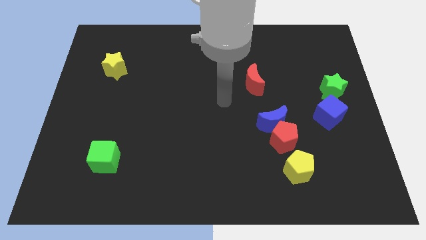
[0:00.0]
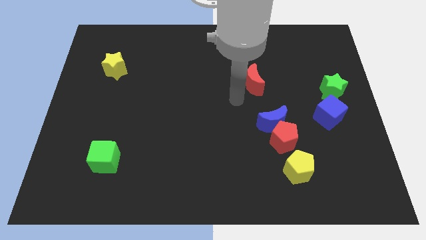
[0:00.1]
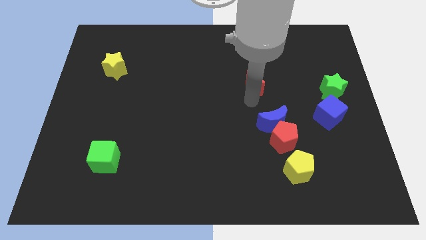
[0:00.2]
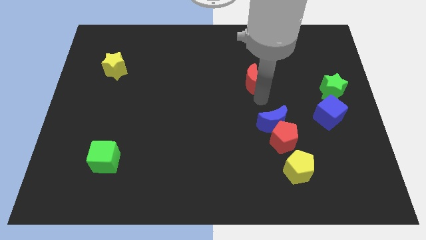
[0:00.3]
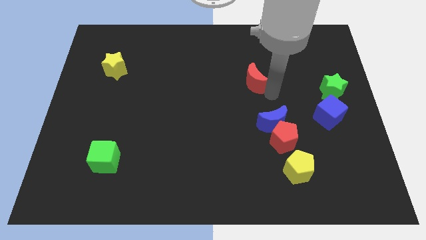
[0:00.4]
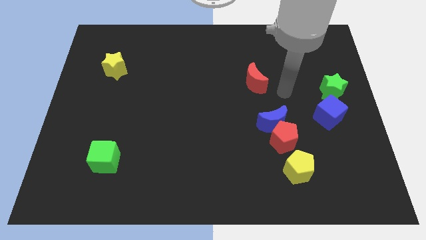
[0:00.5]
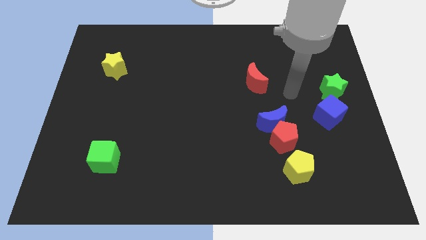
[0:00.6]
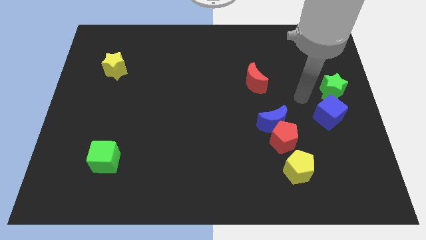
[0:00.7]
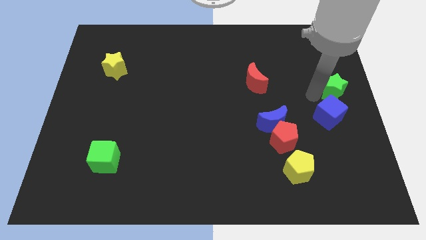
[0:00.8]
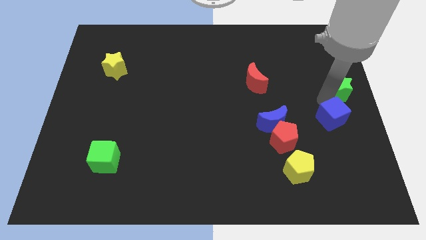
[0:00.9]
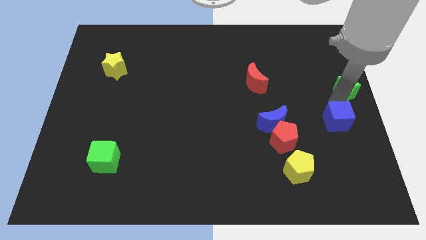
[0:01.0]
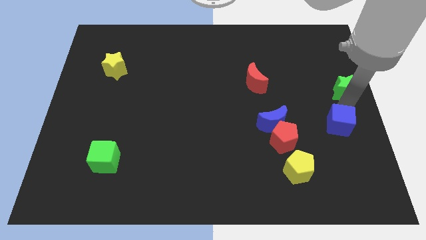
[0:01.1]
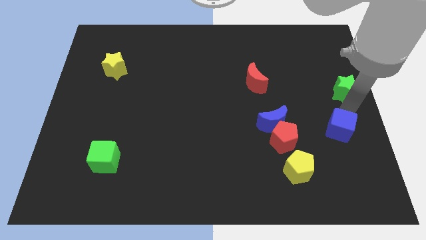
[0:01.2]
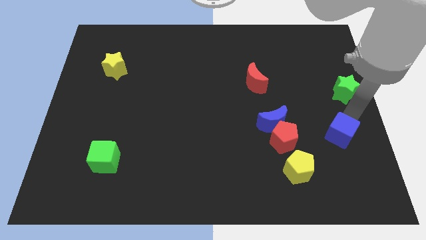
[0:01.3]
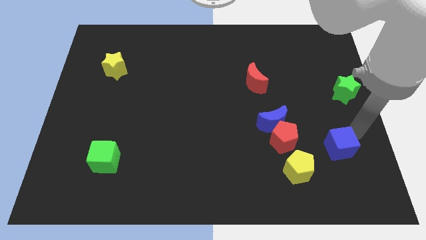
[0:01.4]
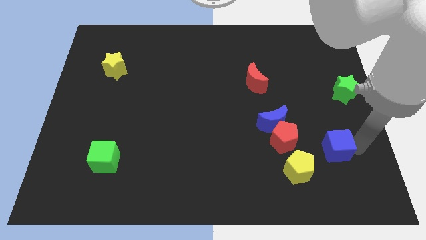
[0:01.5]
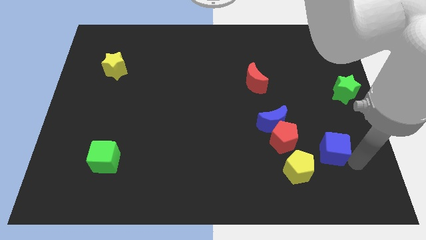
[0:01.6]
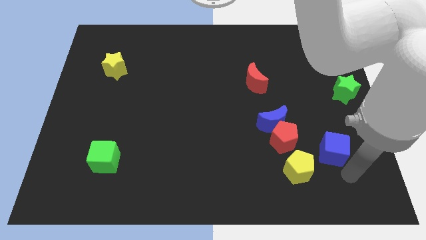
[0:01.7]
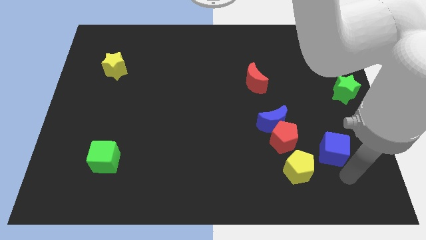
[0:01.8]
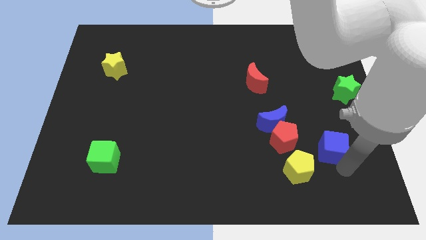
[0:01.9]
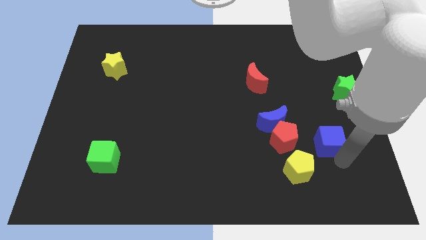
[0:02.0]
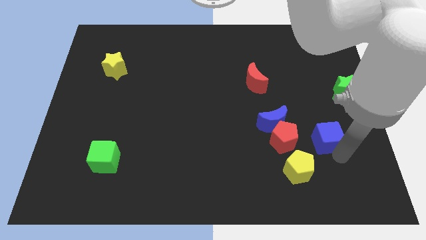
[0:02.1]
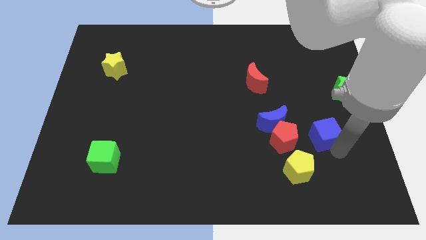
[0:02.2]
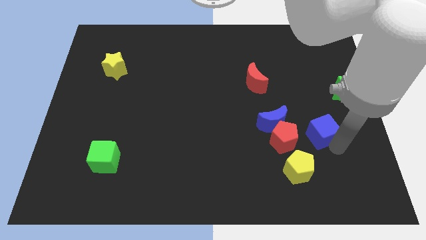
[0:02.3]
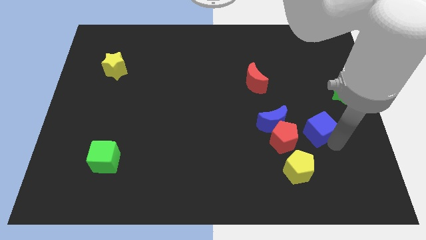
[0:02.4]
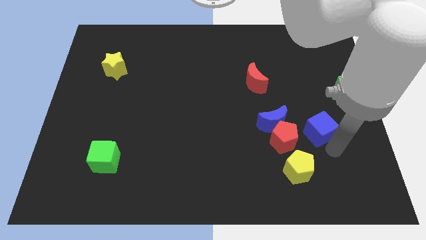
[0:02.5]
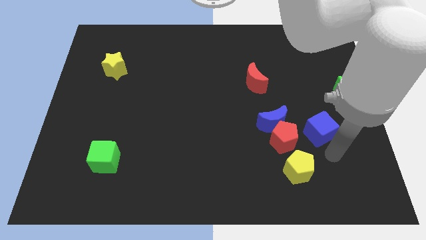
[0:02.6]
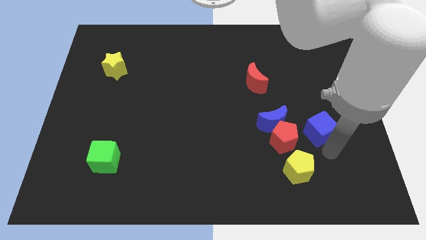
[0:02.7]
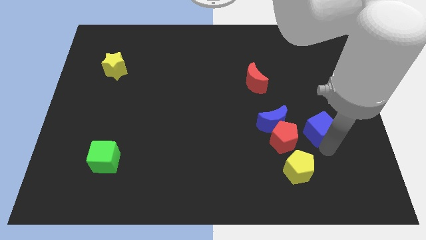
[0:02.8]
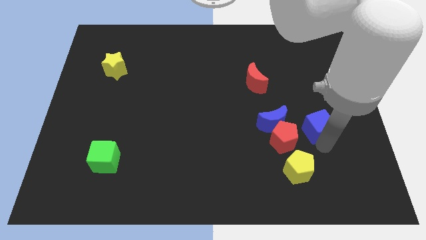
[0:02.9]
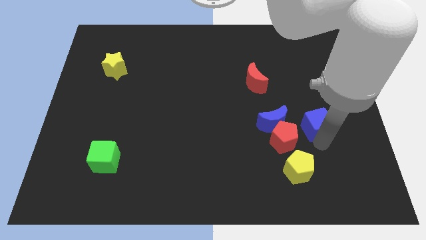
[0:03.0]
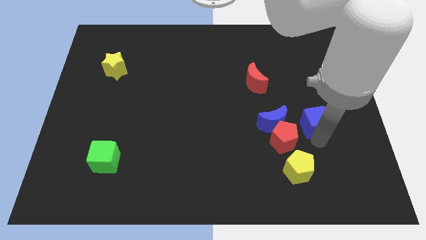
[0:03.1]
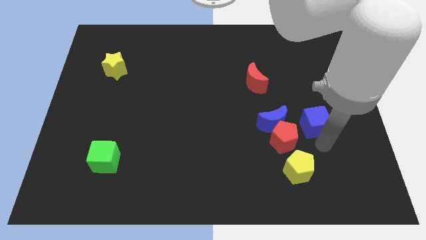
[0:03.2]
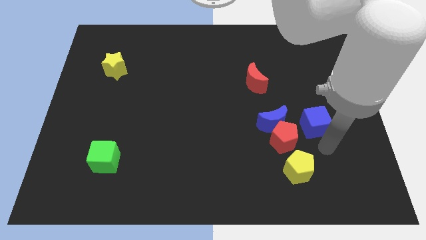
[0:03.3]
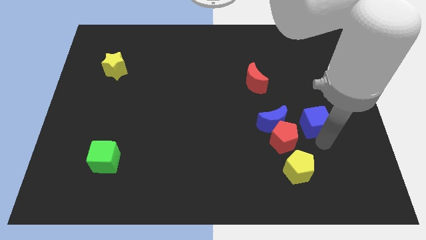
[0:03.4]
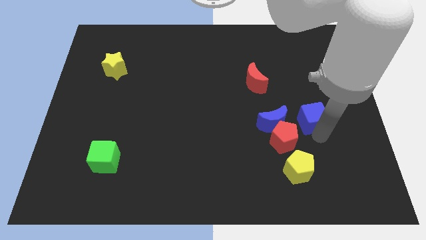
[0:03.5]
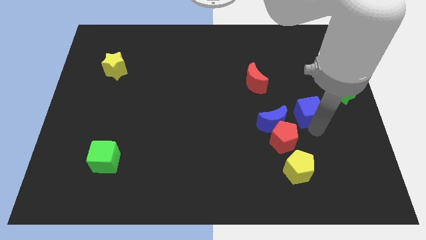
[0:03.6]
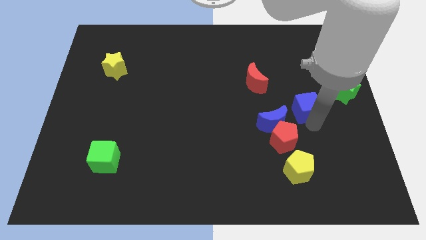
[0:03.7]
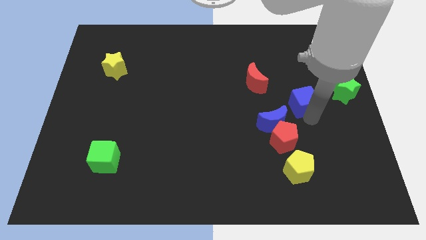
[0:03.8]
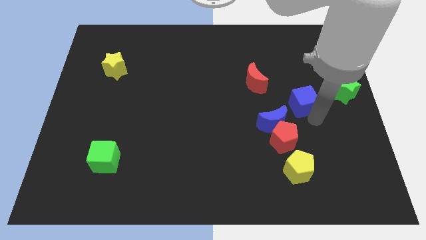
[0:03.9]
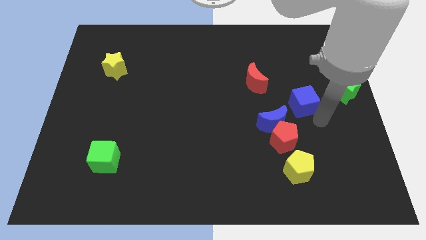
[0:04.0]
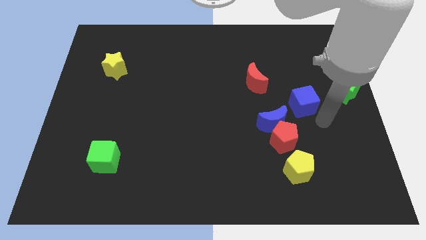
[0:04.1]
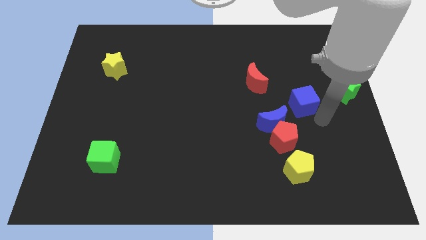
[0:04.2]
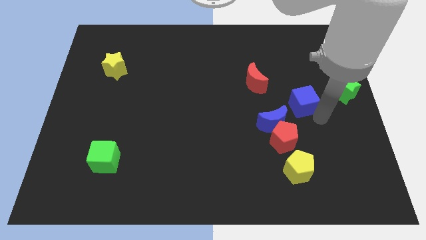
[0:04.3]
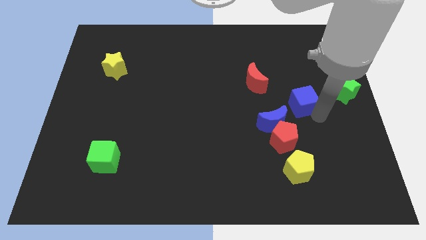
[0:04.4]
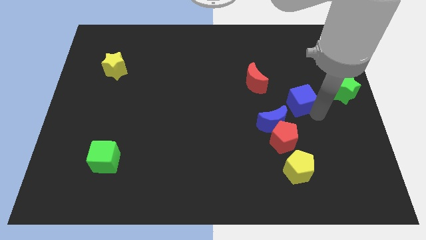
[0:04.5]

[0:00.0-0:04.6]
slightly push the blue cube up and to the left diagonally

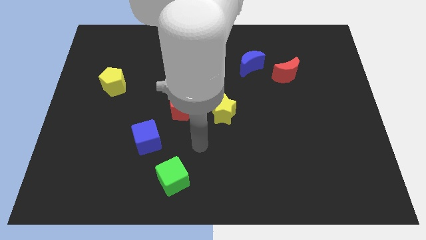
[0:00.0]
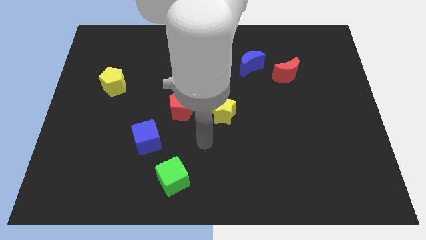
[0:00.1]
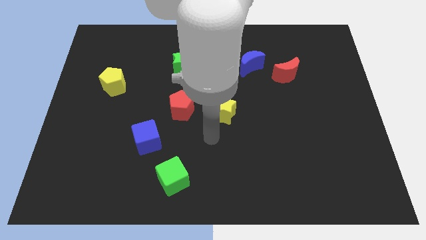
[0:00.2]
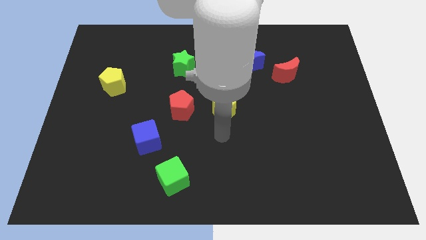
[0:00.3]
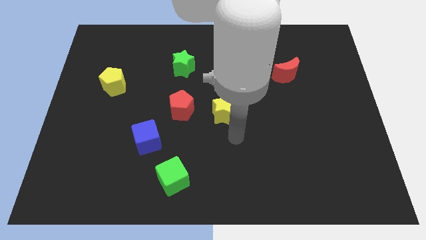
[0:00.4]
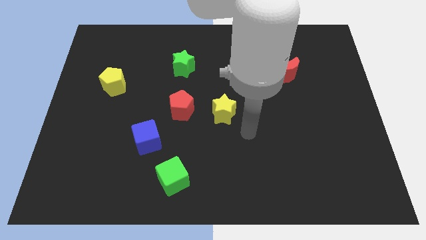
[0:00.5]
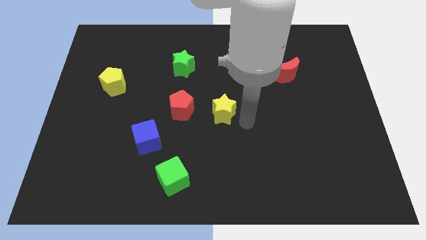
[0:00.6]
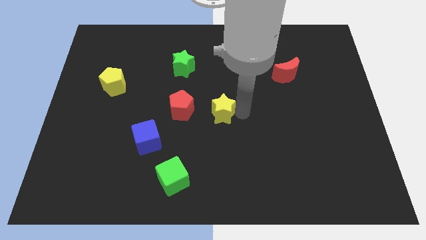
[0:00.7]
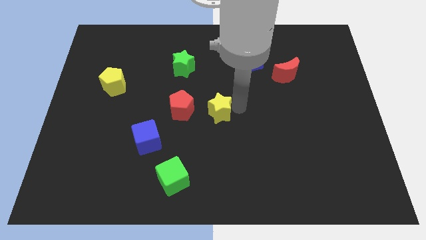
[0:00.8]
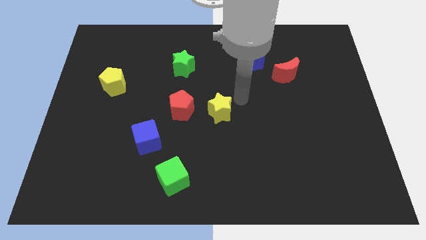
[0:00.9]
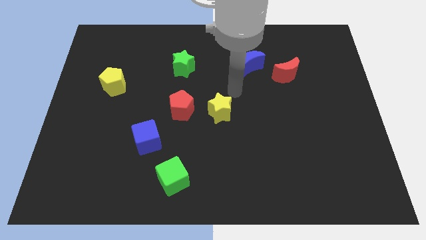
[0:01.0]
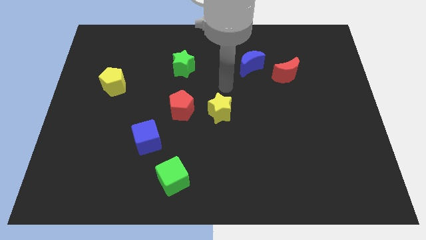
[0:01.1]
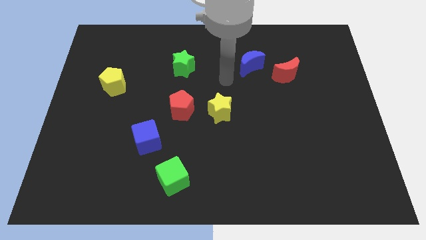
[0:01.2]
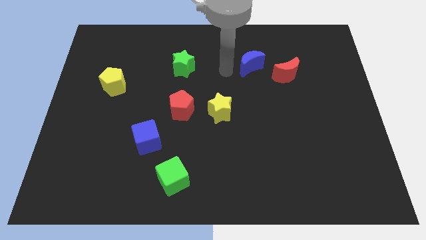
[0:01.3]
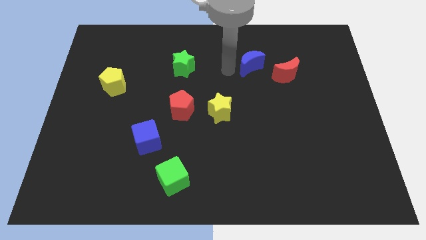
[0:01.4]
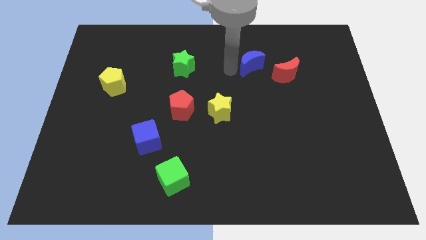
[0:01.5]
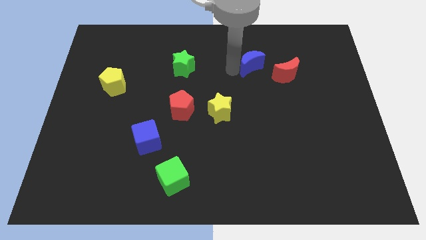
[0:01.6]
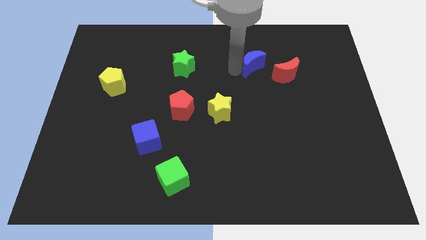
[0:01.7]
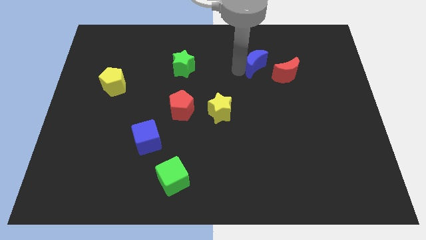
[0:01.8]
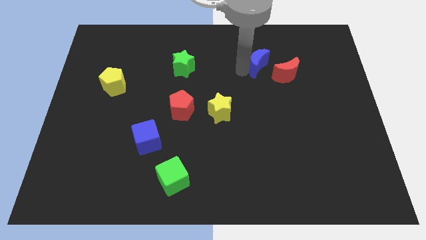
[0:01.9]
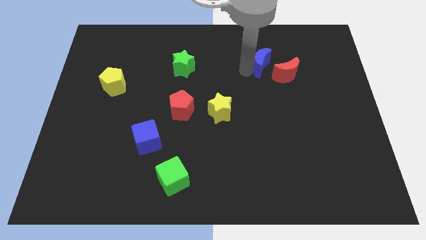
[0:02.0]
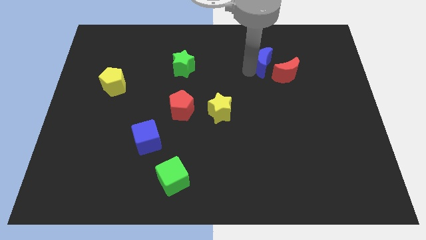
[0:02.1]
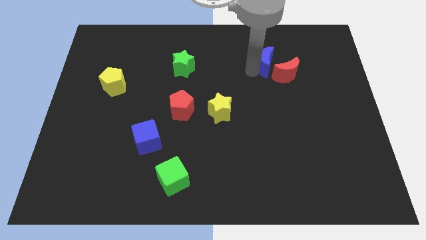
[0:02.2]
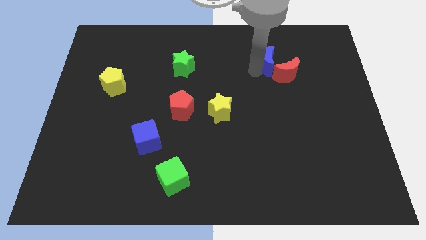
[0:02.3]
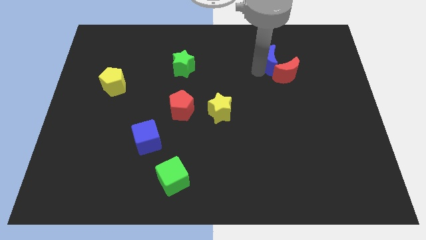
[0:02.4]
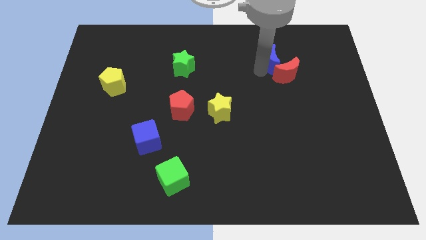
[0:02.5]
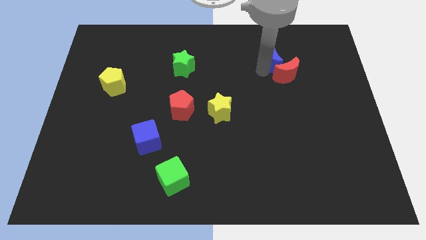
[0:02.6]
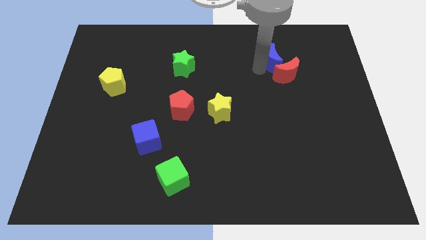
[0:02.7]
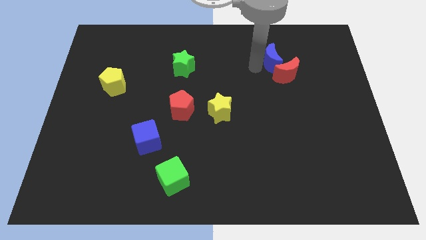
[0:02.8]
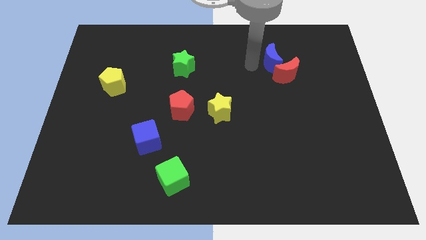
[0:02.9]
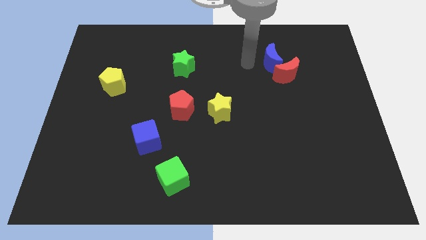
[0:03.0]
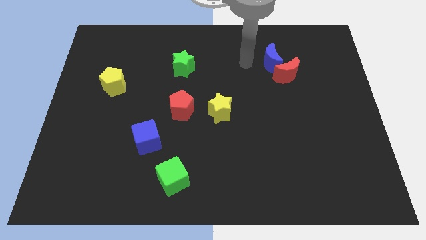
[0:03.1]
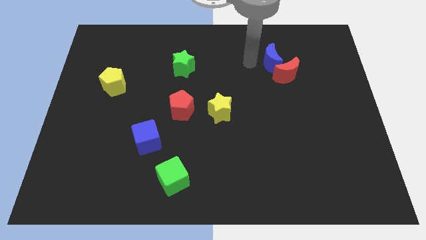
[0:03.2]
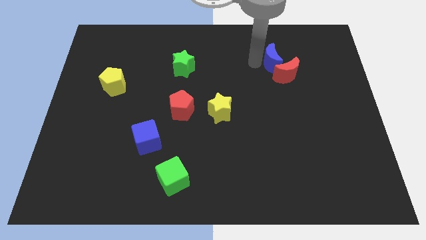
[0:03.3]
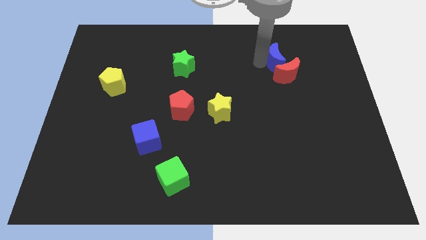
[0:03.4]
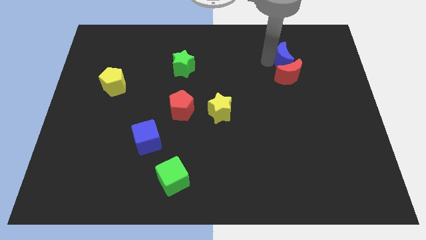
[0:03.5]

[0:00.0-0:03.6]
push the blue moon right a little bit
